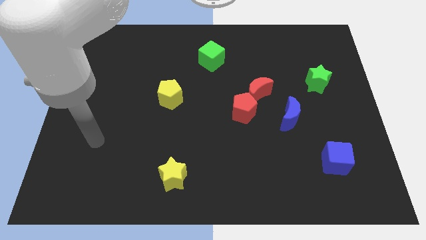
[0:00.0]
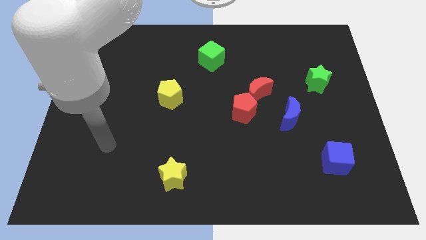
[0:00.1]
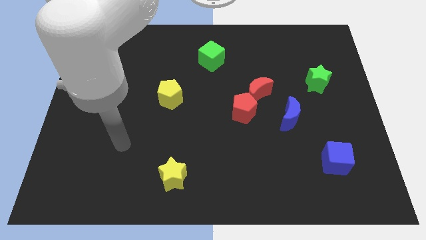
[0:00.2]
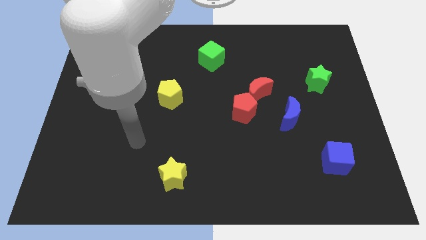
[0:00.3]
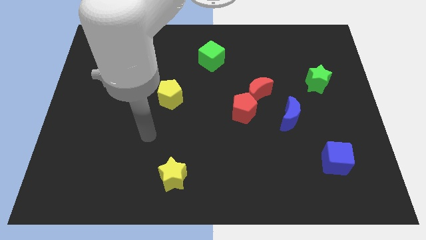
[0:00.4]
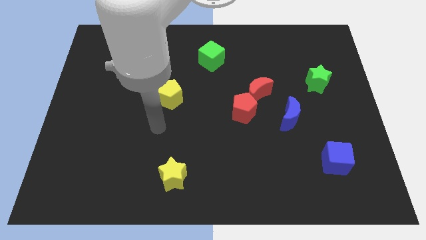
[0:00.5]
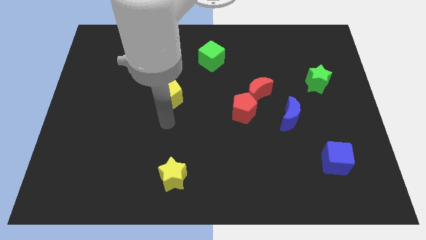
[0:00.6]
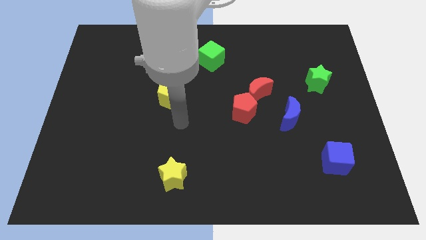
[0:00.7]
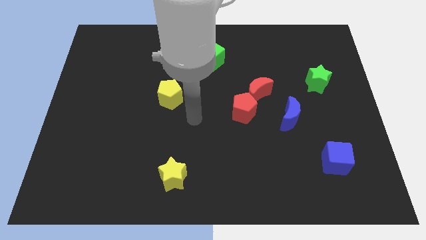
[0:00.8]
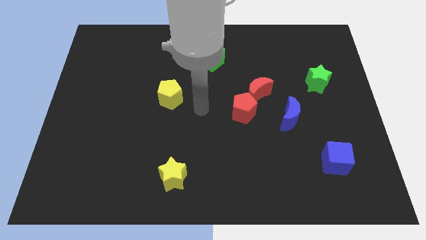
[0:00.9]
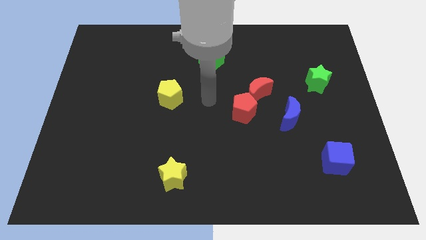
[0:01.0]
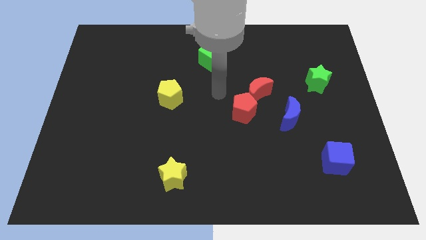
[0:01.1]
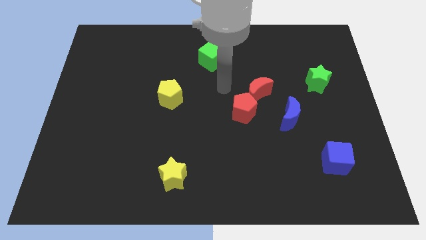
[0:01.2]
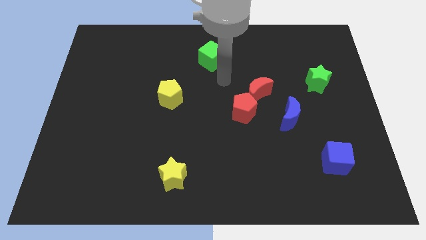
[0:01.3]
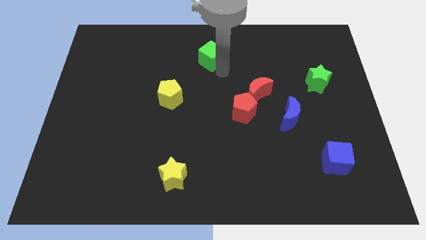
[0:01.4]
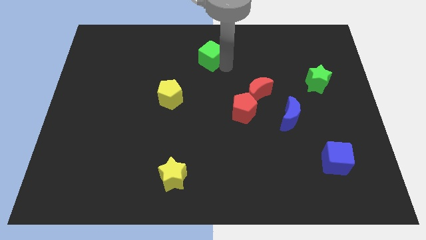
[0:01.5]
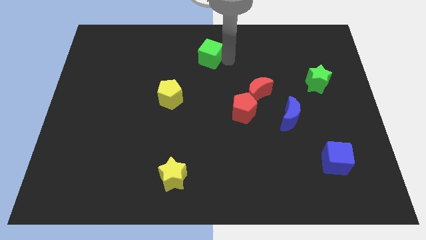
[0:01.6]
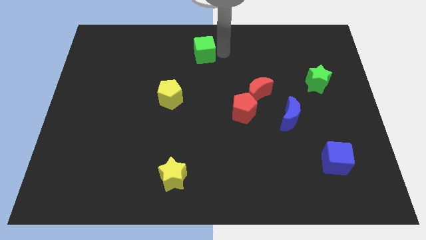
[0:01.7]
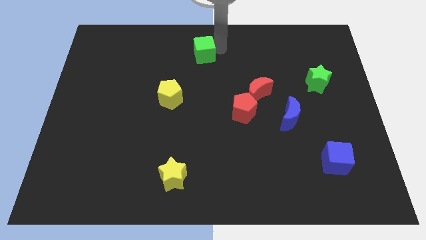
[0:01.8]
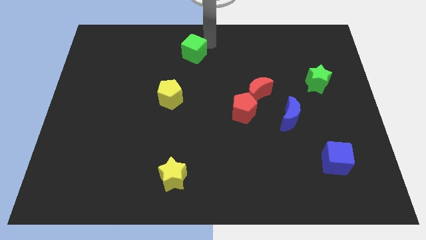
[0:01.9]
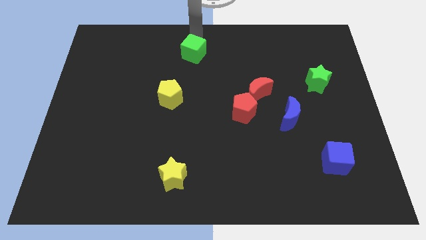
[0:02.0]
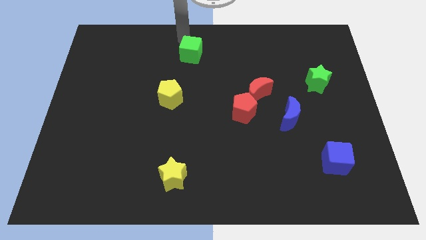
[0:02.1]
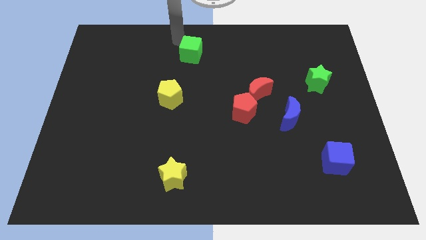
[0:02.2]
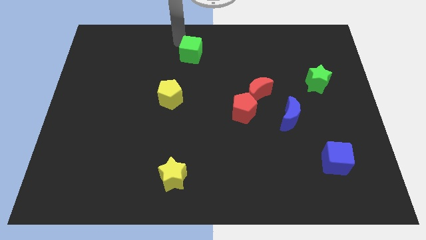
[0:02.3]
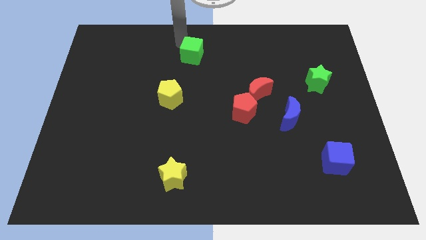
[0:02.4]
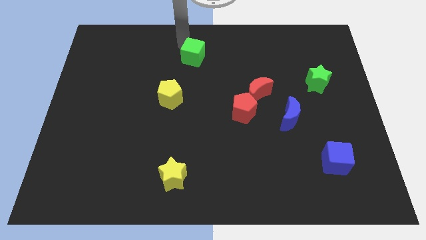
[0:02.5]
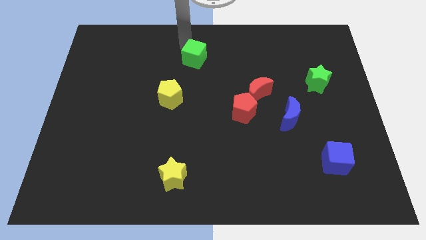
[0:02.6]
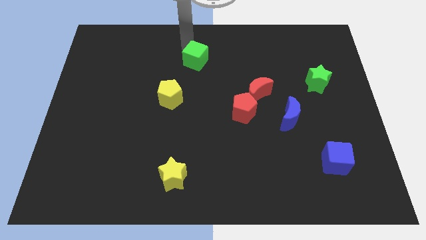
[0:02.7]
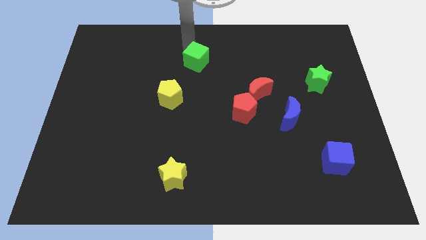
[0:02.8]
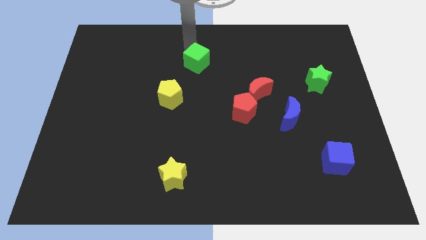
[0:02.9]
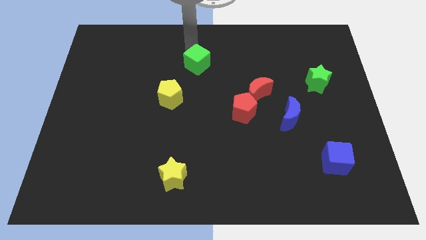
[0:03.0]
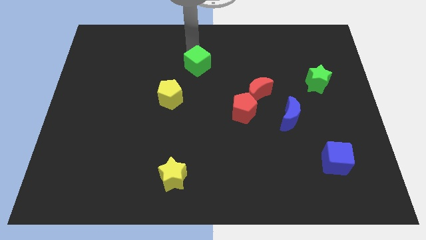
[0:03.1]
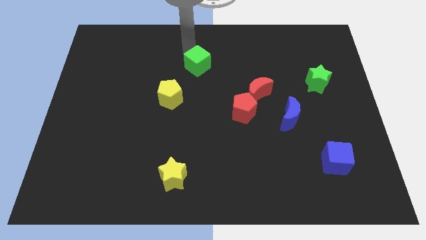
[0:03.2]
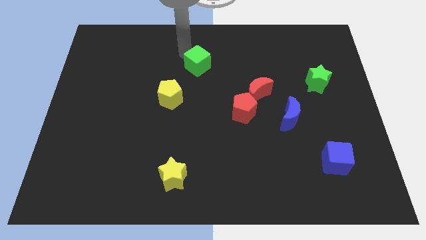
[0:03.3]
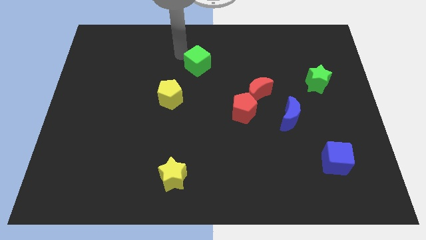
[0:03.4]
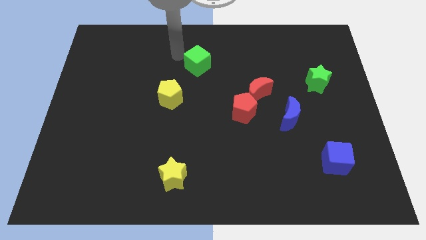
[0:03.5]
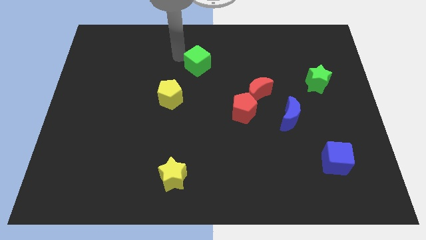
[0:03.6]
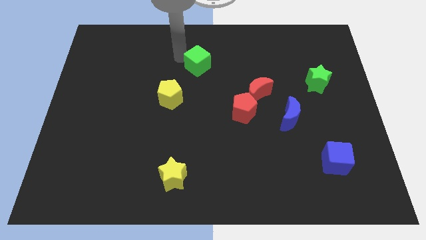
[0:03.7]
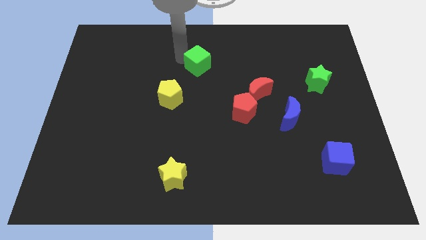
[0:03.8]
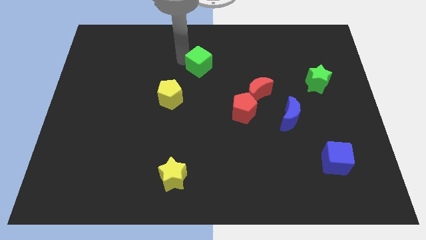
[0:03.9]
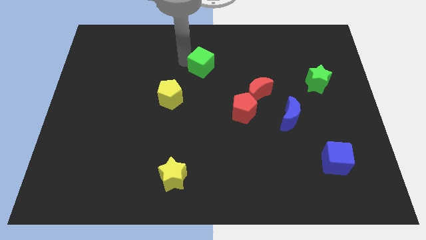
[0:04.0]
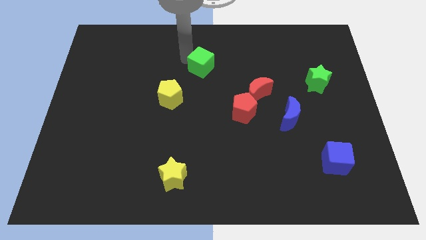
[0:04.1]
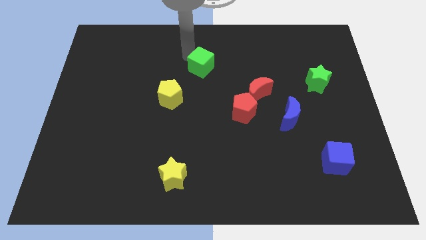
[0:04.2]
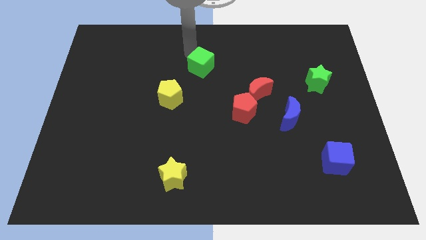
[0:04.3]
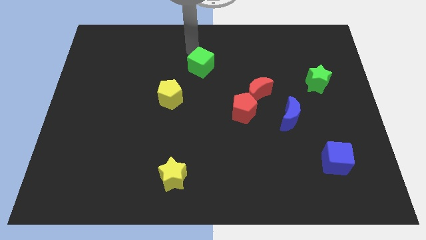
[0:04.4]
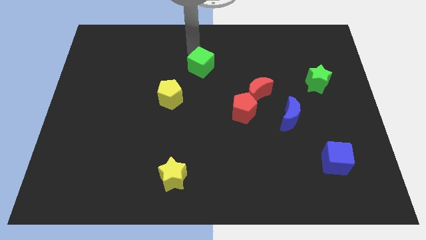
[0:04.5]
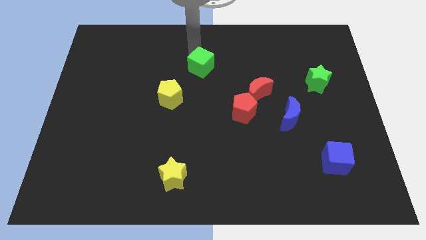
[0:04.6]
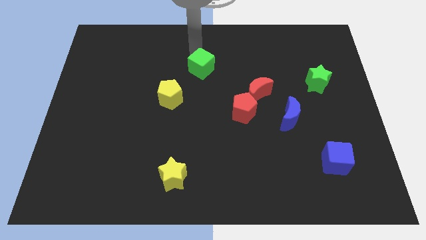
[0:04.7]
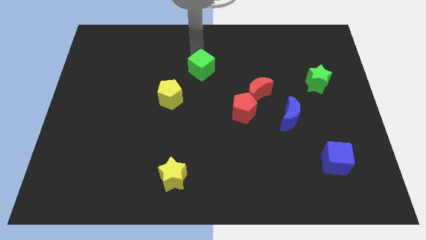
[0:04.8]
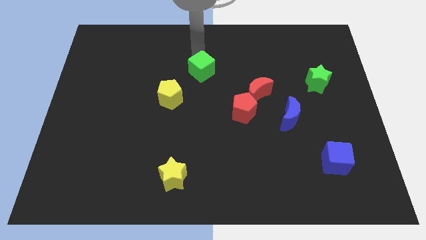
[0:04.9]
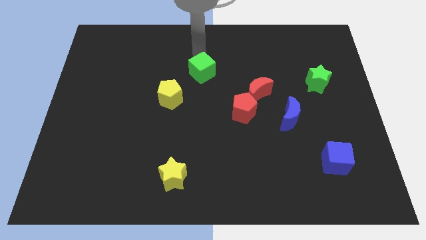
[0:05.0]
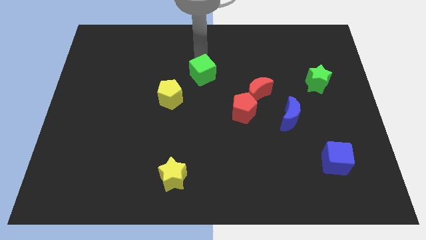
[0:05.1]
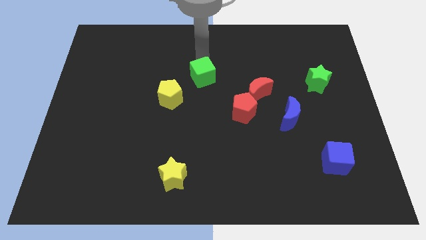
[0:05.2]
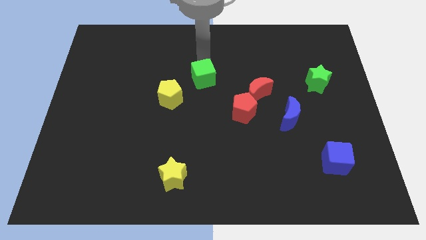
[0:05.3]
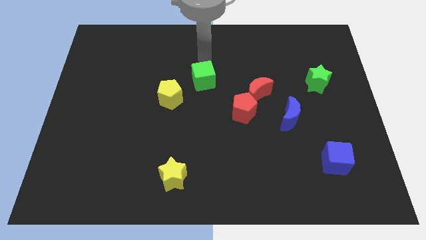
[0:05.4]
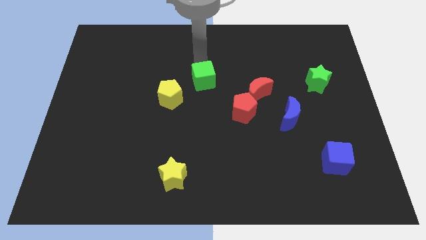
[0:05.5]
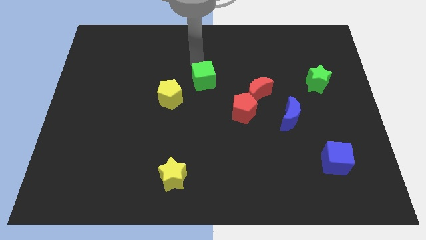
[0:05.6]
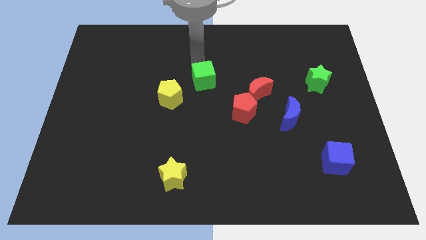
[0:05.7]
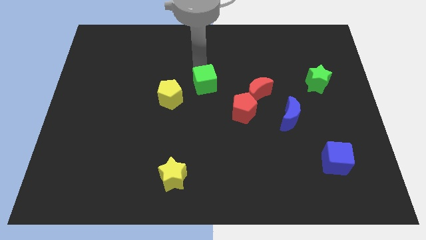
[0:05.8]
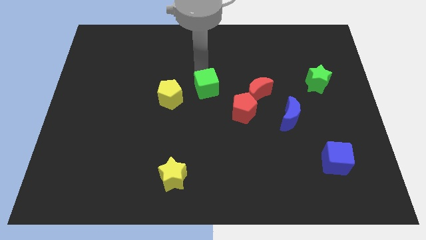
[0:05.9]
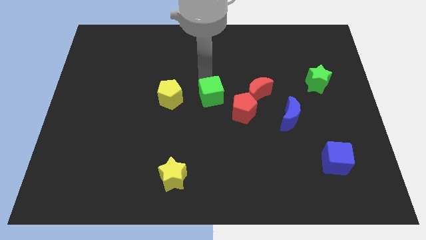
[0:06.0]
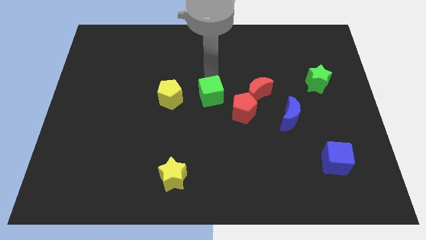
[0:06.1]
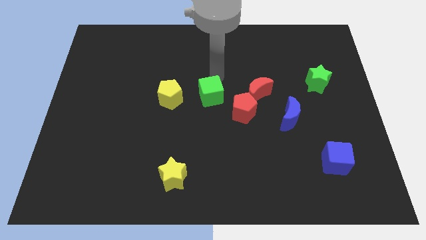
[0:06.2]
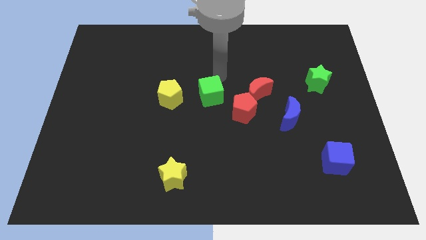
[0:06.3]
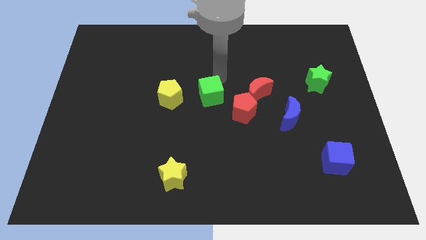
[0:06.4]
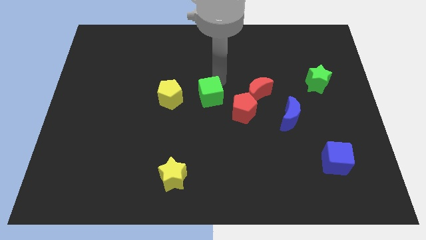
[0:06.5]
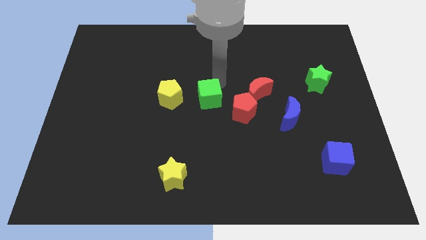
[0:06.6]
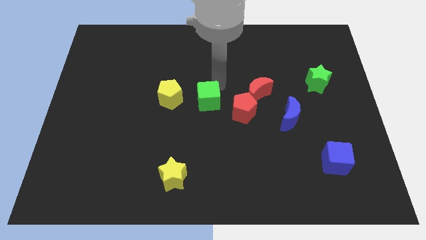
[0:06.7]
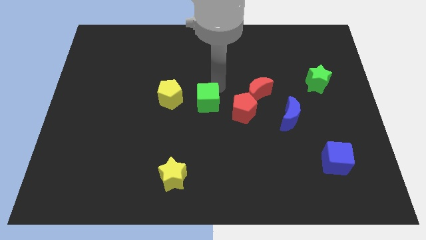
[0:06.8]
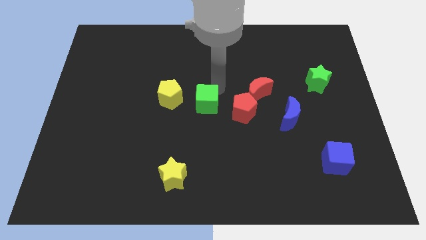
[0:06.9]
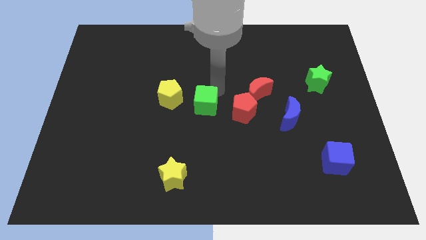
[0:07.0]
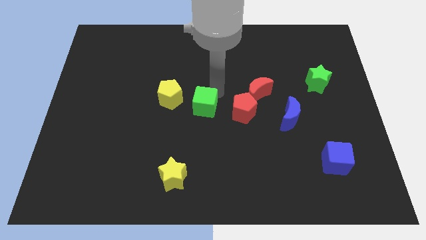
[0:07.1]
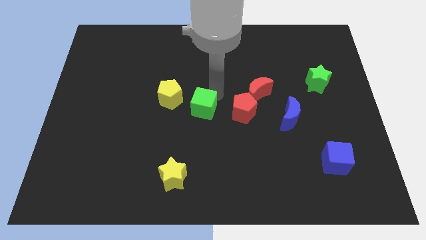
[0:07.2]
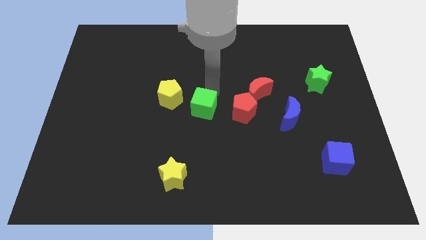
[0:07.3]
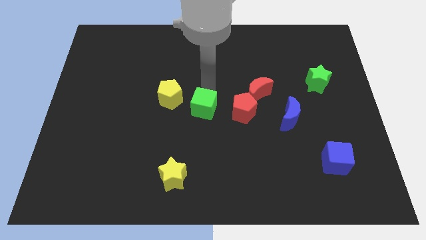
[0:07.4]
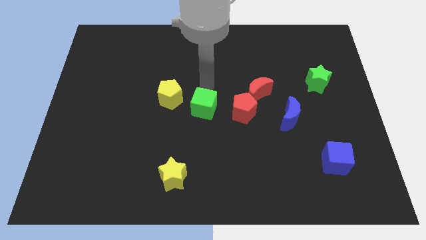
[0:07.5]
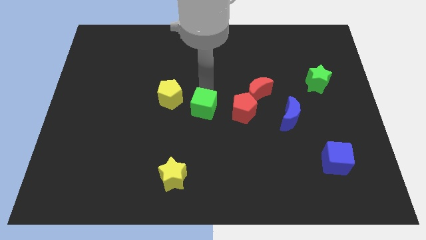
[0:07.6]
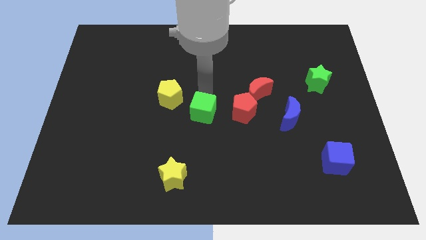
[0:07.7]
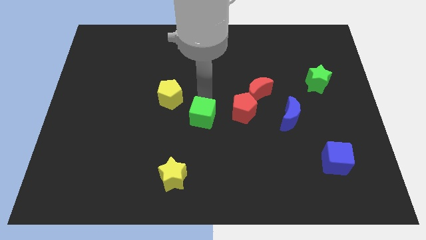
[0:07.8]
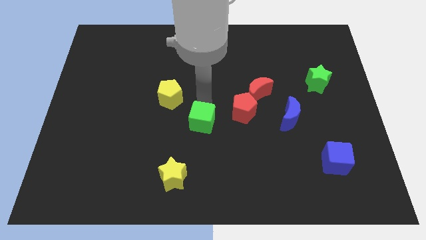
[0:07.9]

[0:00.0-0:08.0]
push the green cube down

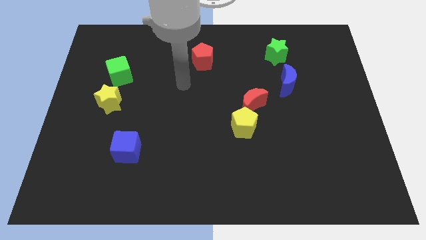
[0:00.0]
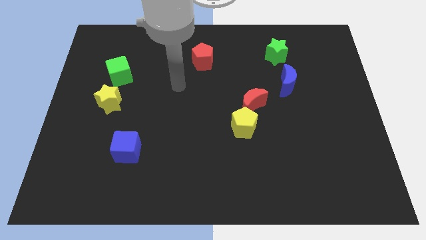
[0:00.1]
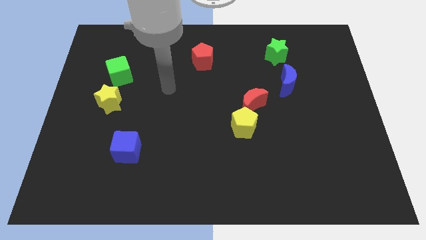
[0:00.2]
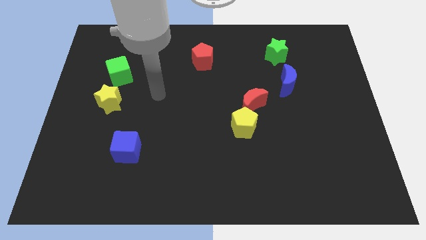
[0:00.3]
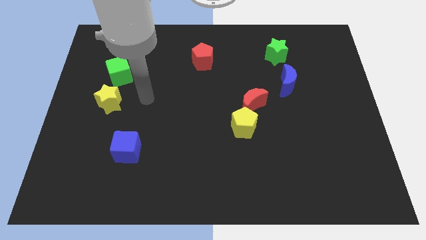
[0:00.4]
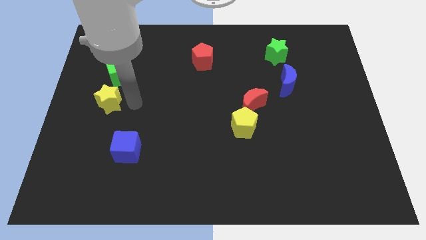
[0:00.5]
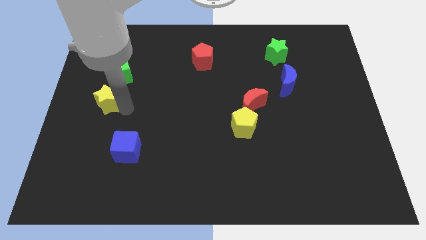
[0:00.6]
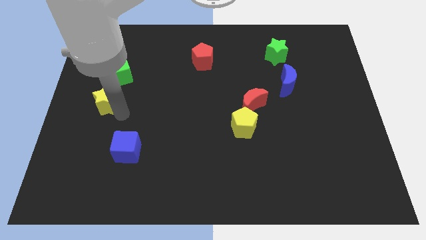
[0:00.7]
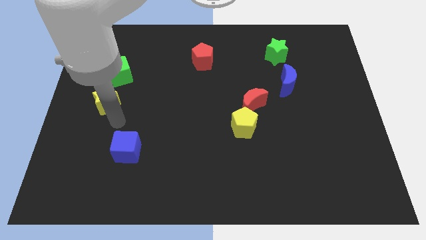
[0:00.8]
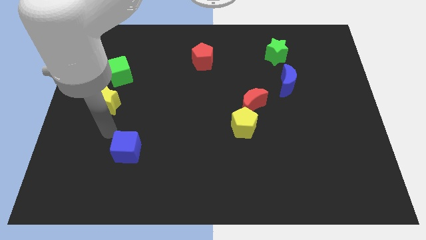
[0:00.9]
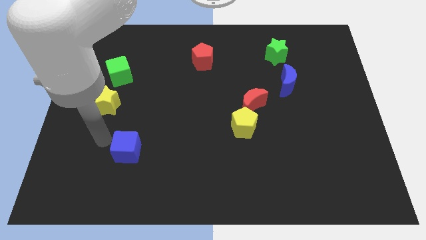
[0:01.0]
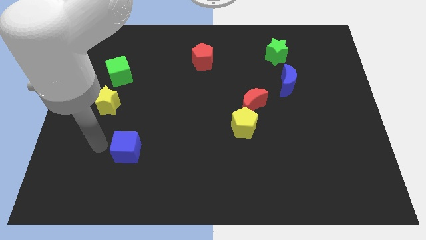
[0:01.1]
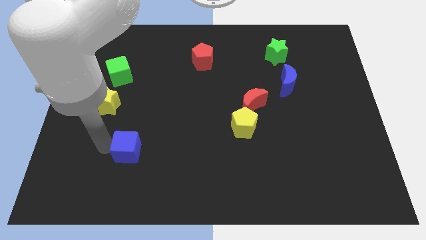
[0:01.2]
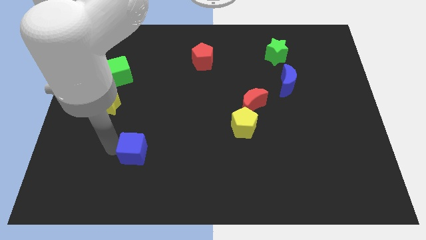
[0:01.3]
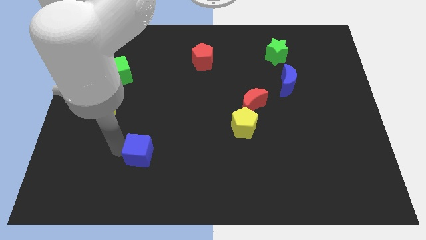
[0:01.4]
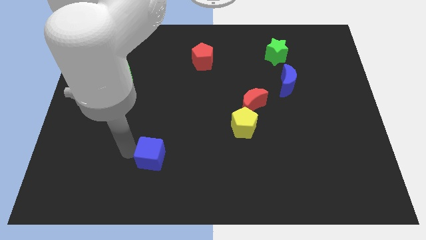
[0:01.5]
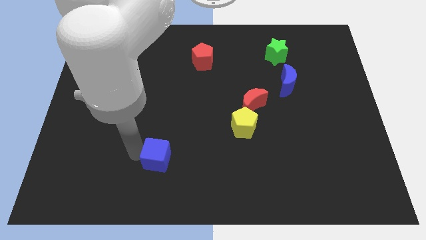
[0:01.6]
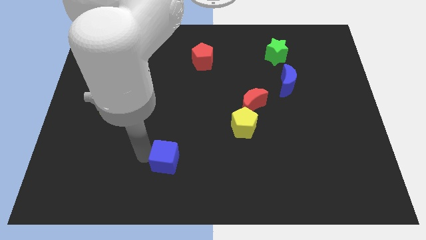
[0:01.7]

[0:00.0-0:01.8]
slide the blue cube right somewhat
